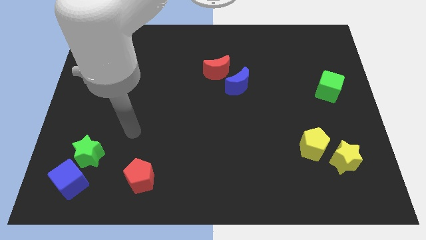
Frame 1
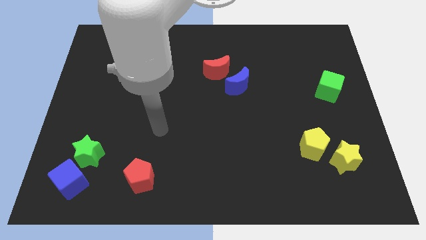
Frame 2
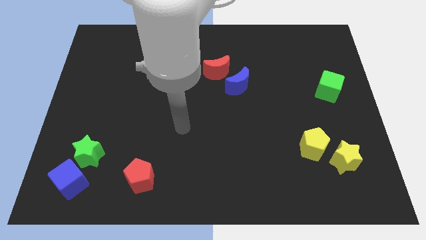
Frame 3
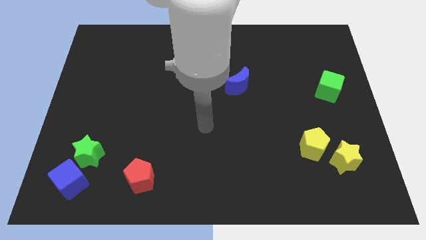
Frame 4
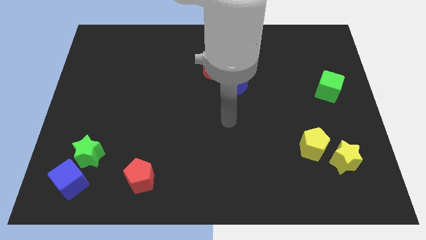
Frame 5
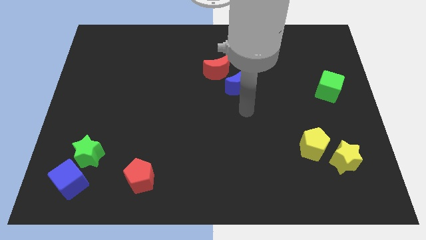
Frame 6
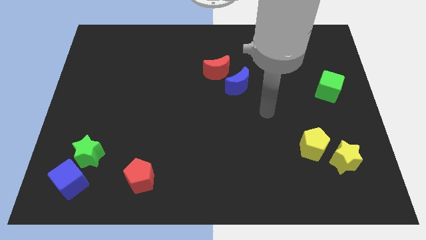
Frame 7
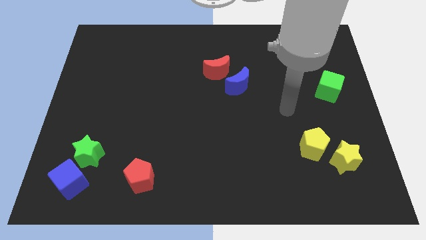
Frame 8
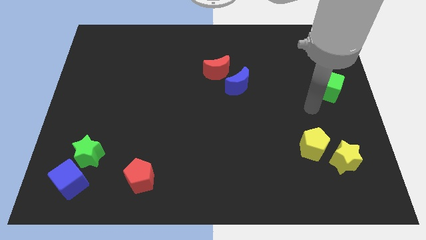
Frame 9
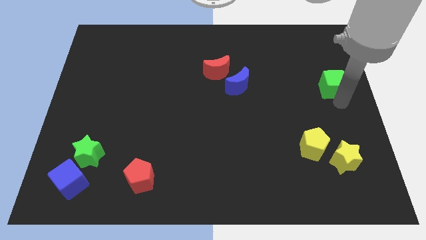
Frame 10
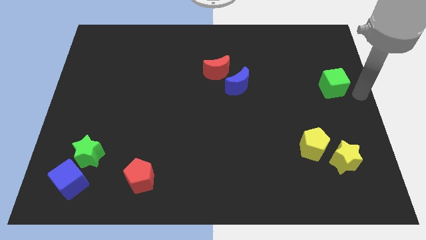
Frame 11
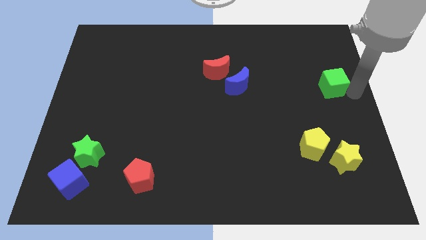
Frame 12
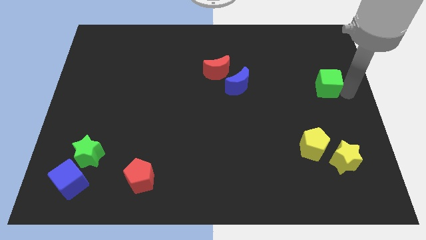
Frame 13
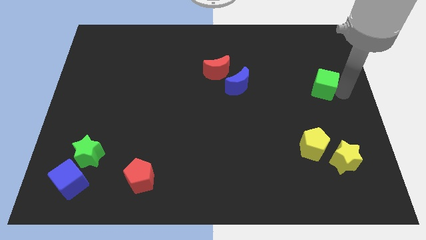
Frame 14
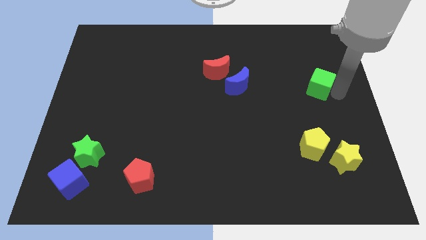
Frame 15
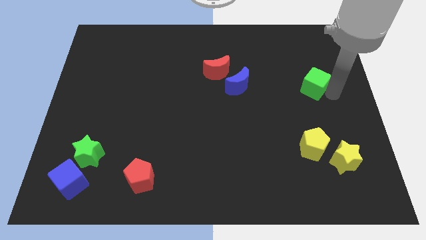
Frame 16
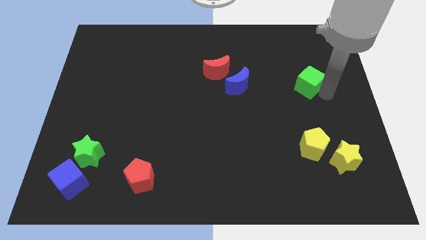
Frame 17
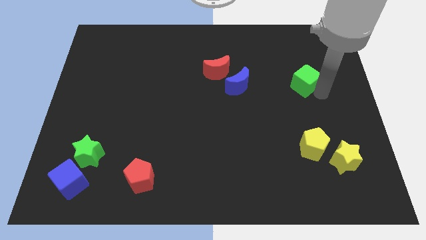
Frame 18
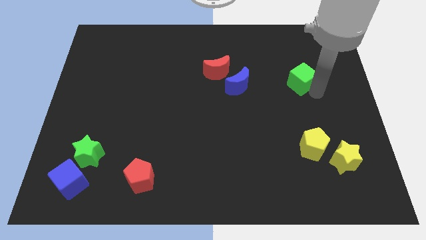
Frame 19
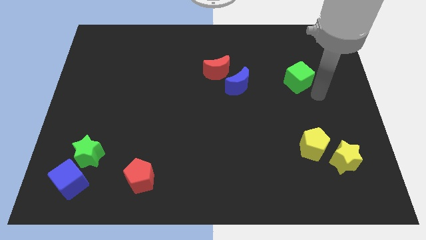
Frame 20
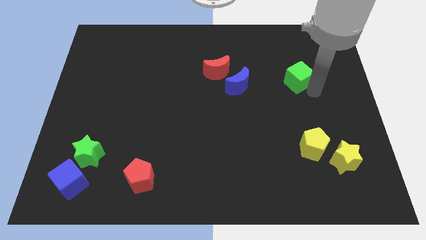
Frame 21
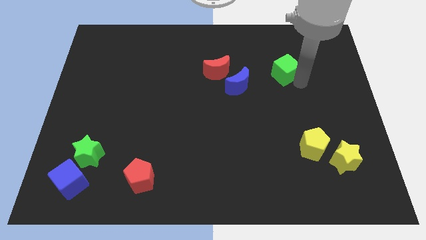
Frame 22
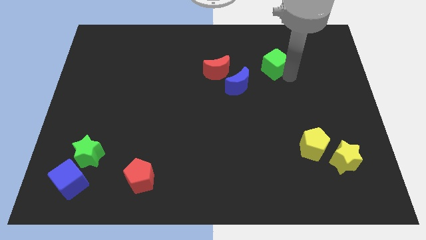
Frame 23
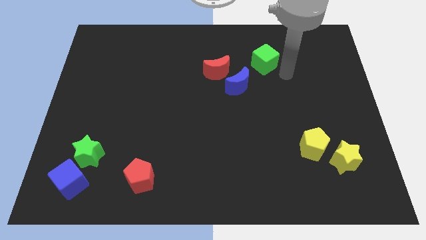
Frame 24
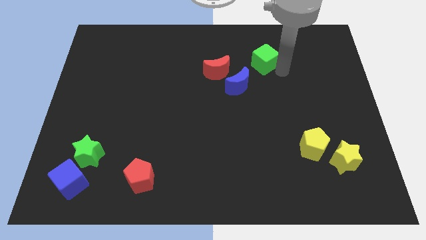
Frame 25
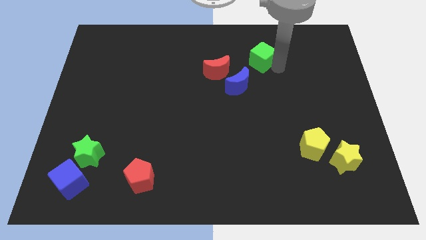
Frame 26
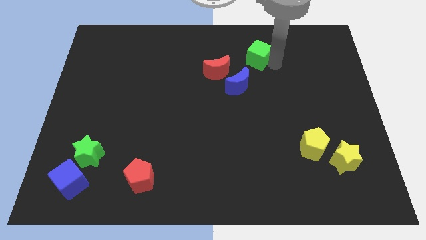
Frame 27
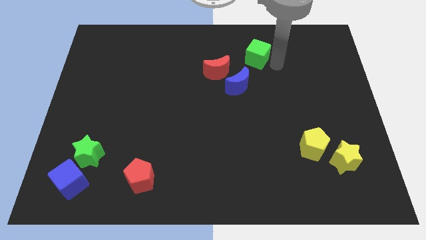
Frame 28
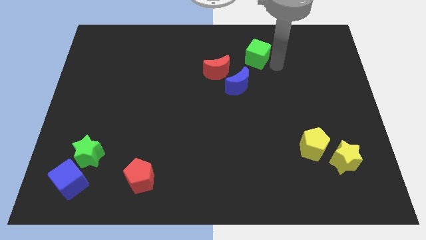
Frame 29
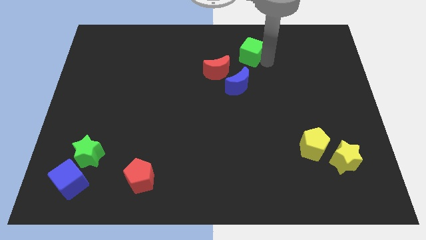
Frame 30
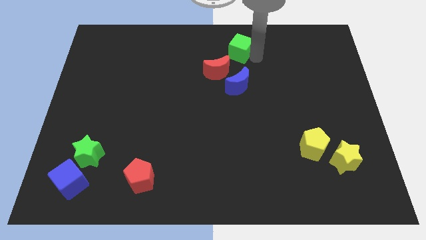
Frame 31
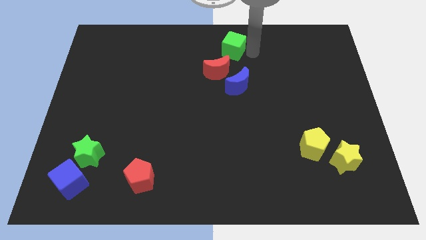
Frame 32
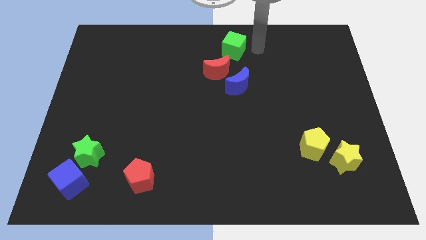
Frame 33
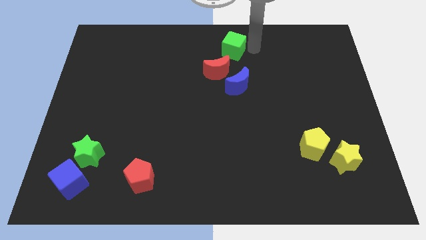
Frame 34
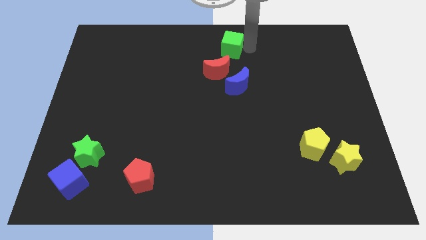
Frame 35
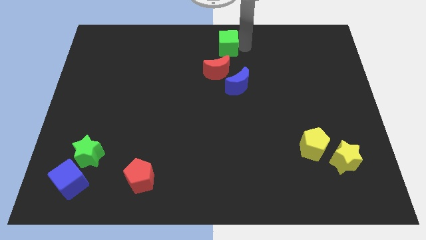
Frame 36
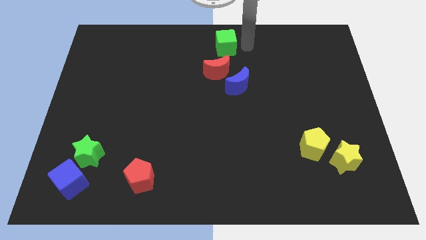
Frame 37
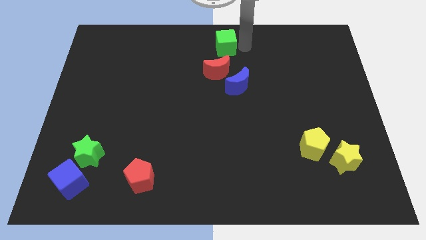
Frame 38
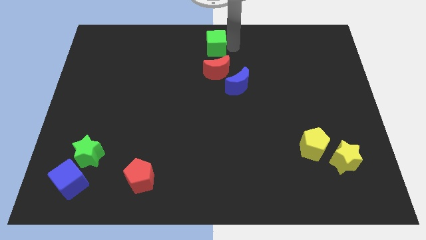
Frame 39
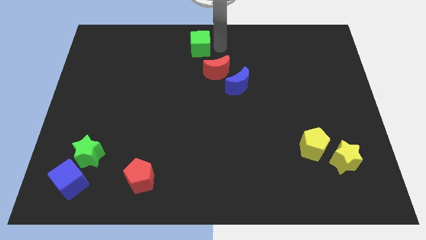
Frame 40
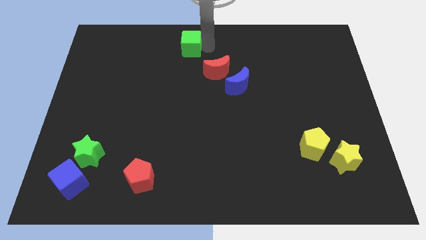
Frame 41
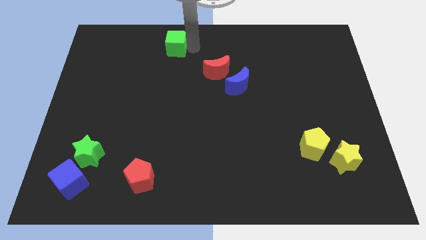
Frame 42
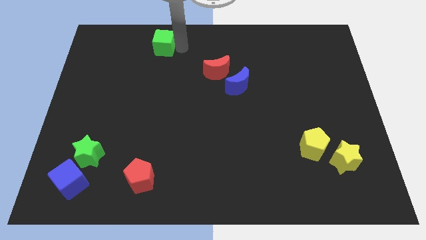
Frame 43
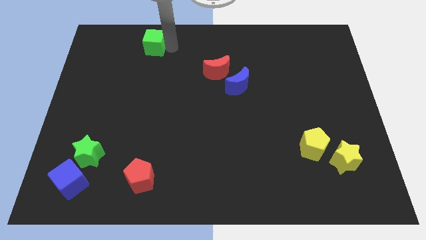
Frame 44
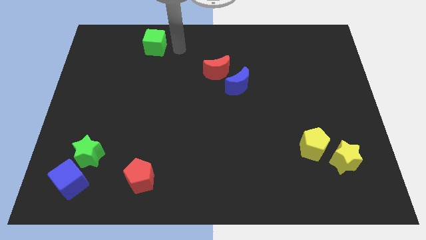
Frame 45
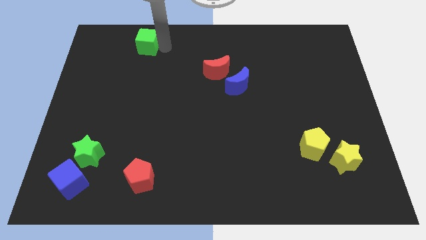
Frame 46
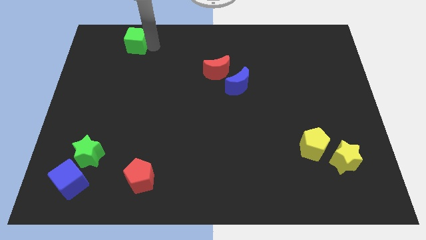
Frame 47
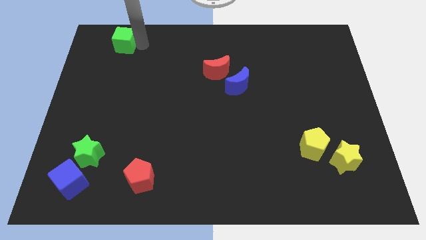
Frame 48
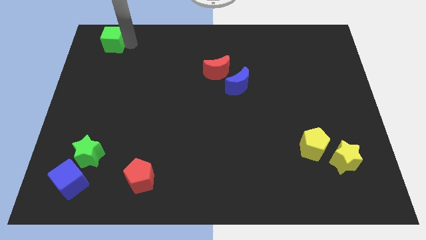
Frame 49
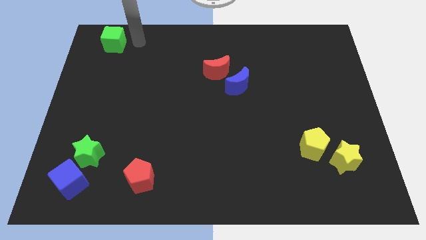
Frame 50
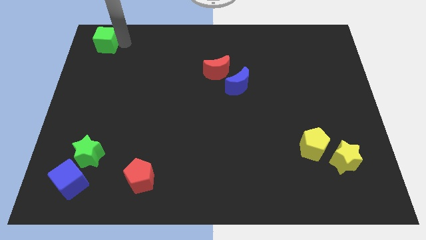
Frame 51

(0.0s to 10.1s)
push the green cube to the top left

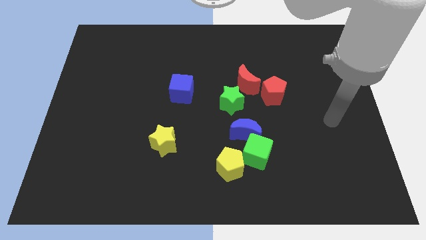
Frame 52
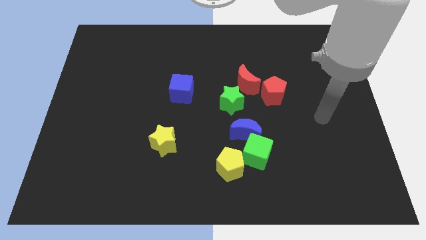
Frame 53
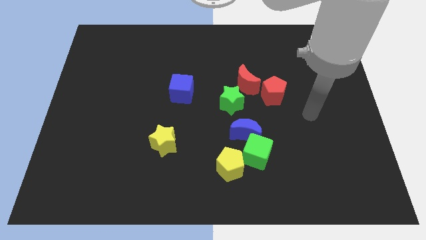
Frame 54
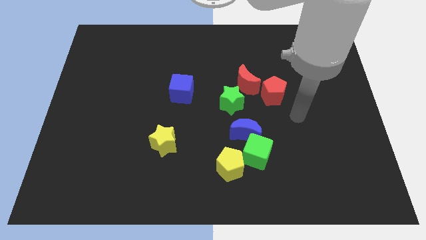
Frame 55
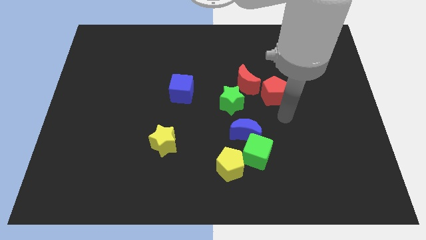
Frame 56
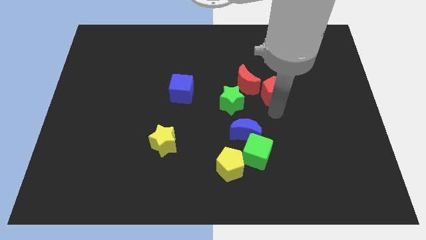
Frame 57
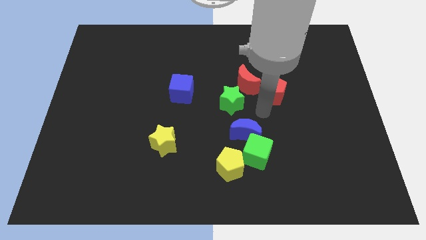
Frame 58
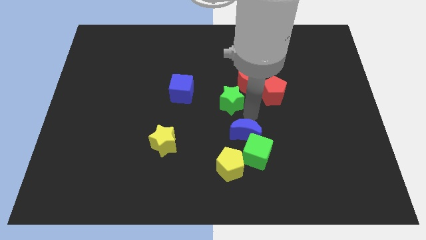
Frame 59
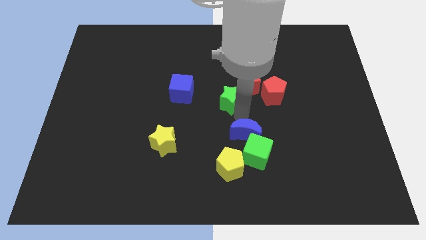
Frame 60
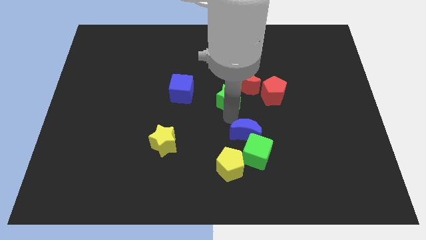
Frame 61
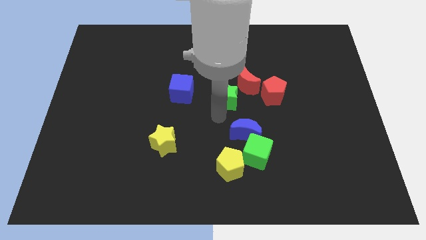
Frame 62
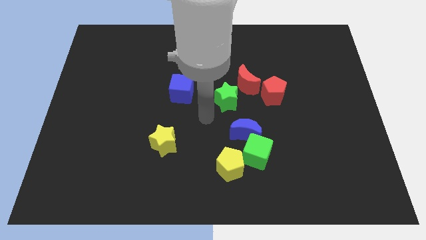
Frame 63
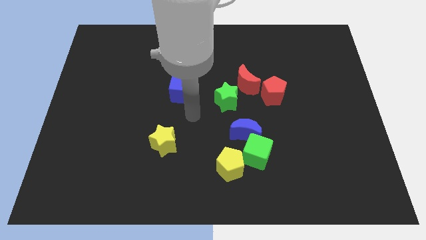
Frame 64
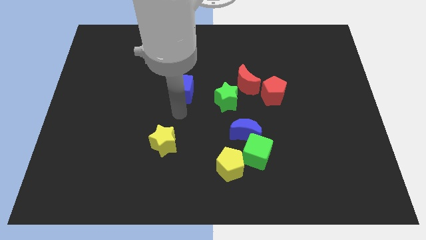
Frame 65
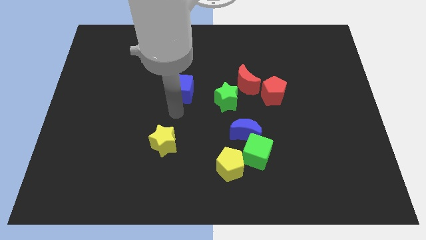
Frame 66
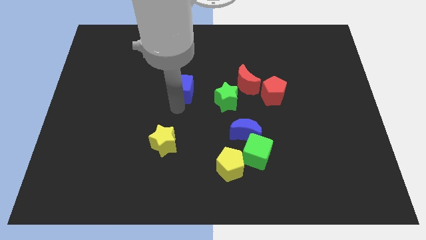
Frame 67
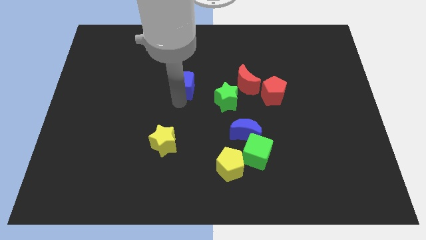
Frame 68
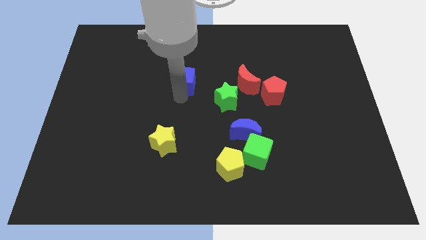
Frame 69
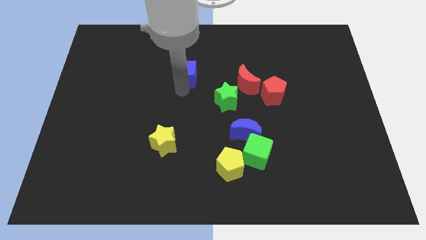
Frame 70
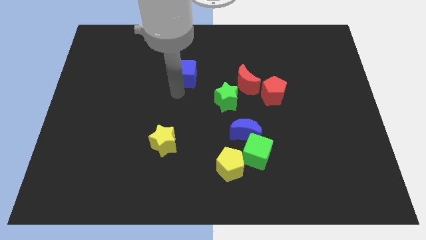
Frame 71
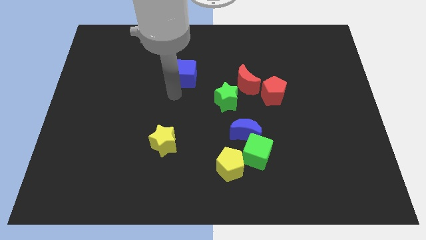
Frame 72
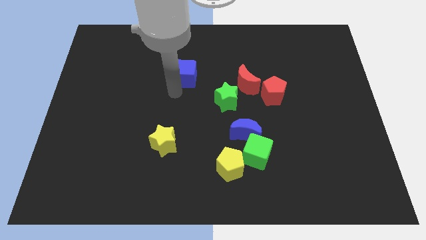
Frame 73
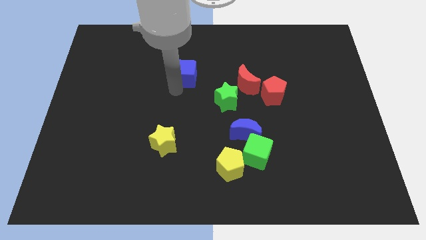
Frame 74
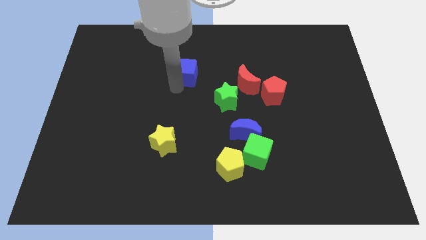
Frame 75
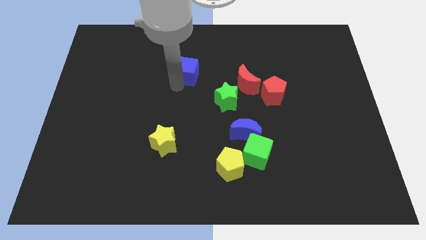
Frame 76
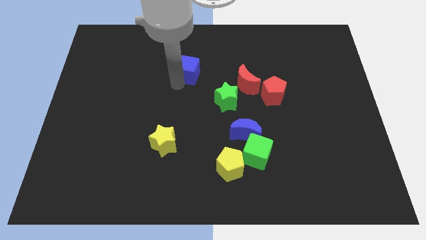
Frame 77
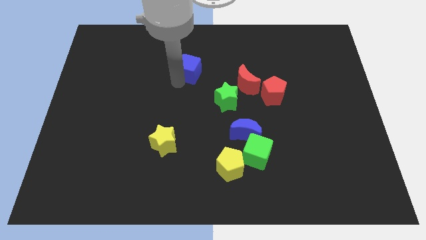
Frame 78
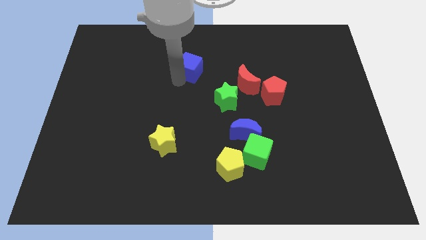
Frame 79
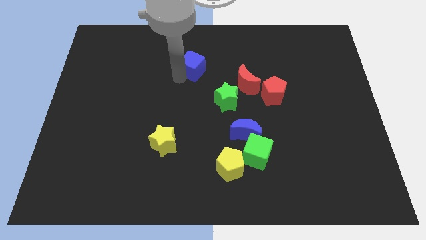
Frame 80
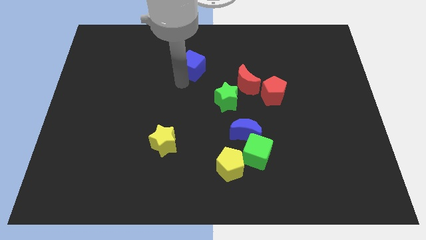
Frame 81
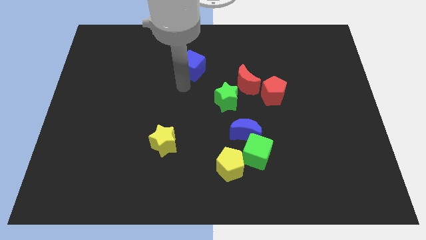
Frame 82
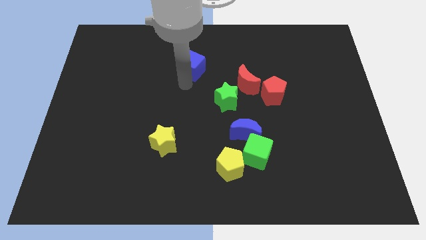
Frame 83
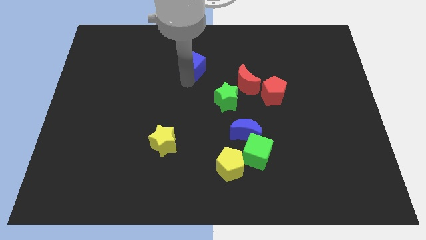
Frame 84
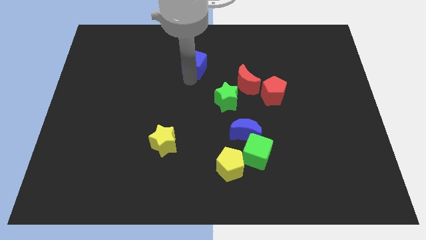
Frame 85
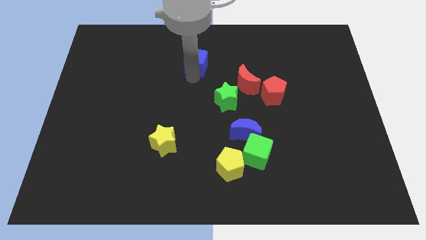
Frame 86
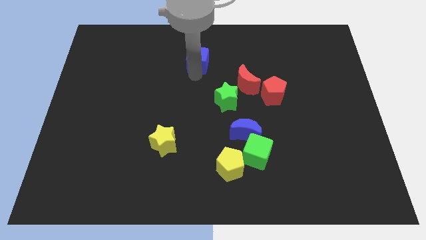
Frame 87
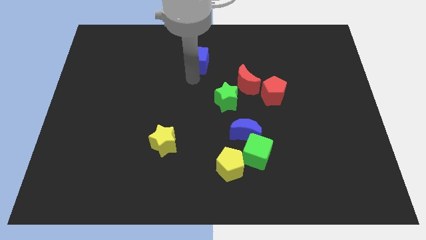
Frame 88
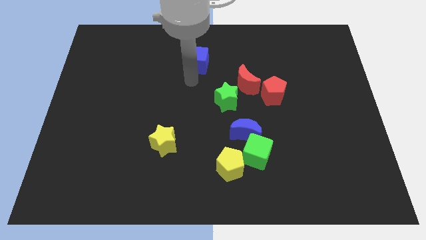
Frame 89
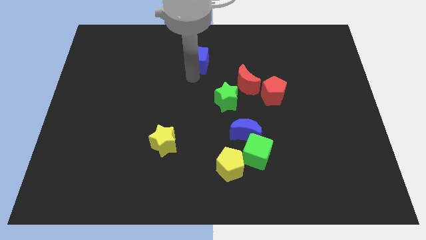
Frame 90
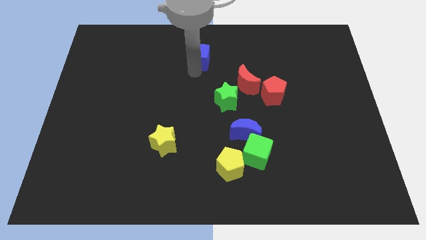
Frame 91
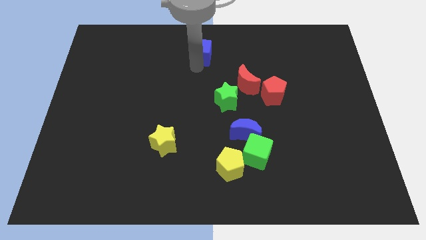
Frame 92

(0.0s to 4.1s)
slide the blue cube to the top
